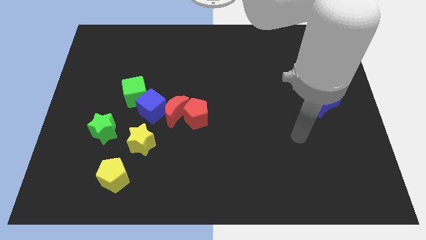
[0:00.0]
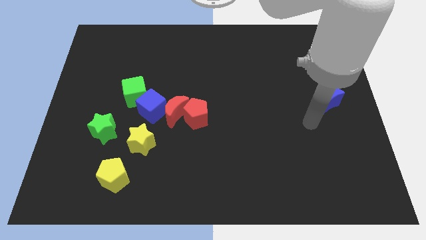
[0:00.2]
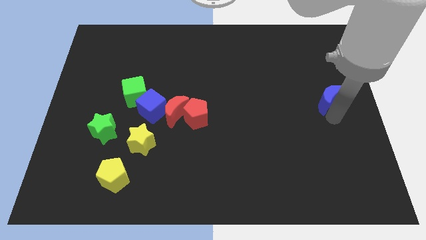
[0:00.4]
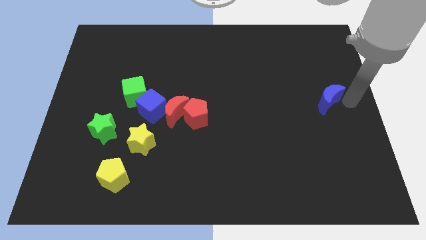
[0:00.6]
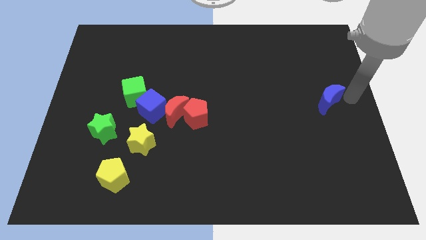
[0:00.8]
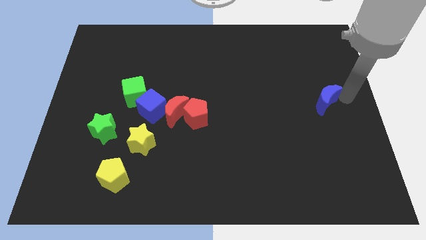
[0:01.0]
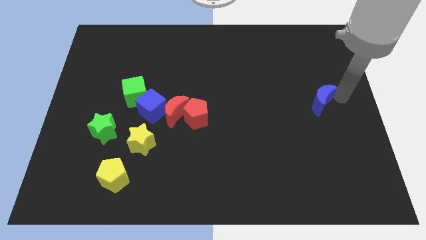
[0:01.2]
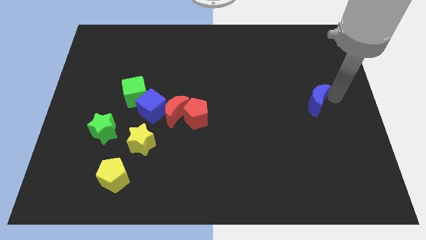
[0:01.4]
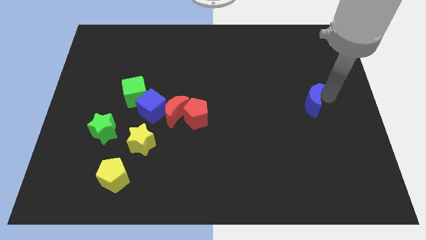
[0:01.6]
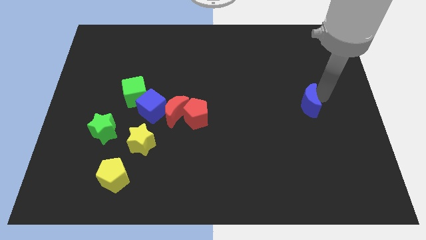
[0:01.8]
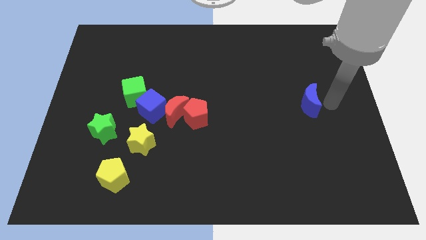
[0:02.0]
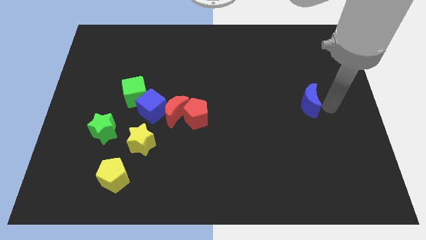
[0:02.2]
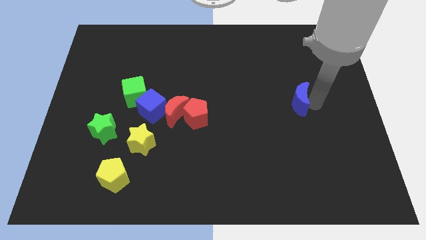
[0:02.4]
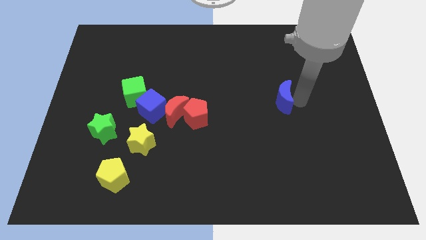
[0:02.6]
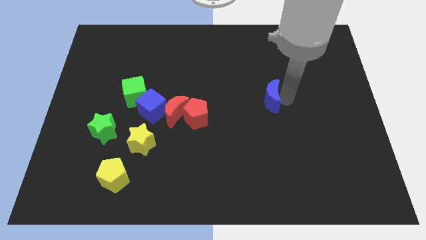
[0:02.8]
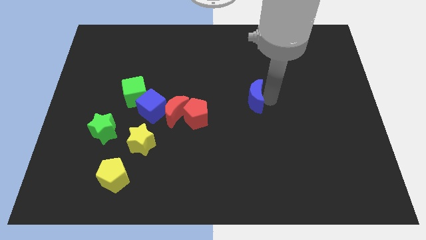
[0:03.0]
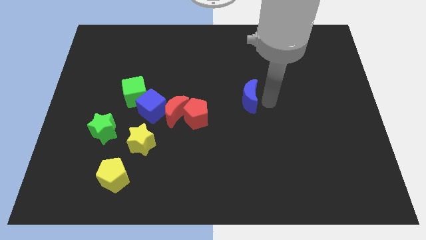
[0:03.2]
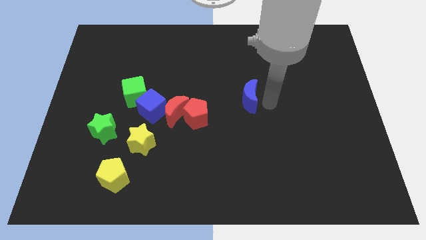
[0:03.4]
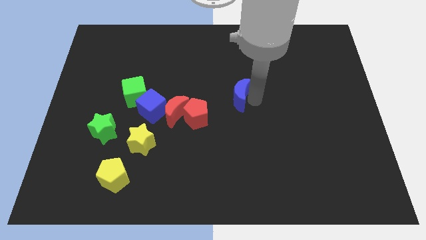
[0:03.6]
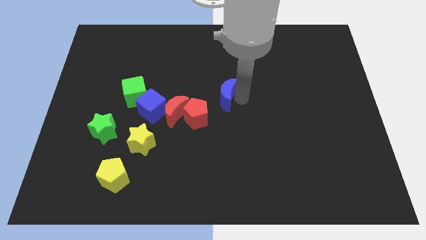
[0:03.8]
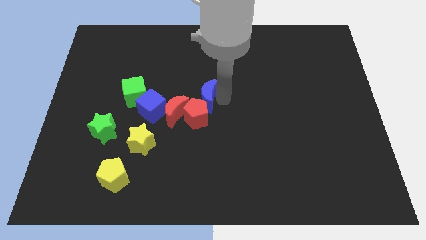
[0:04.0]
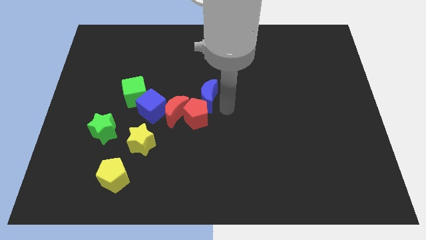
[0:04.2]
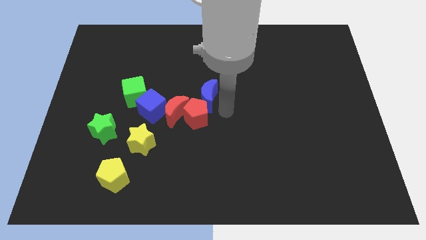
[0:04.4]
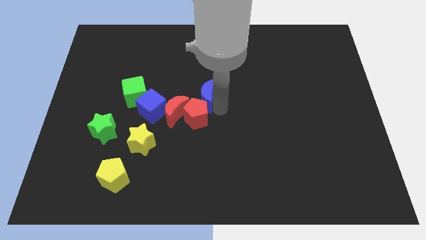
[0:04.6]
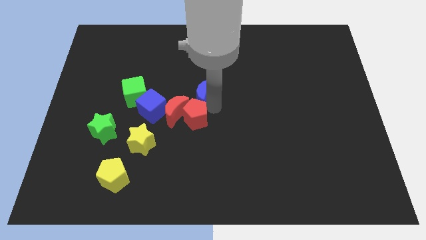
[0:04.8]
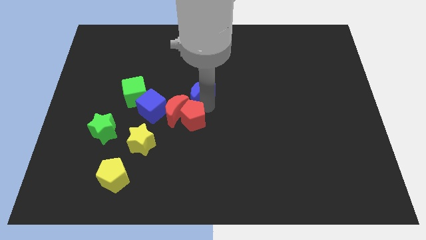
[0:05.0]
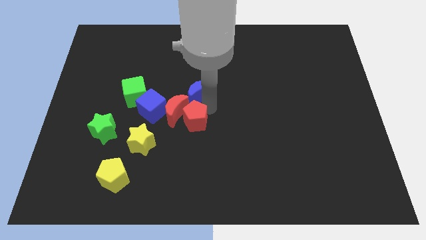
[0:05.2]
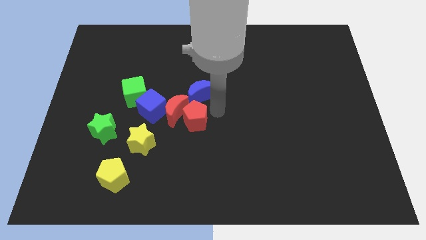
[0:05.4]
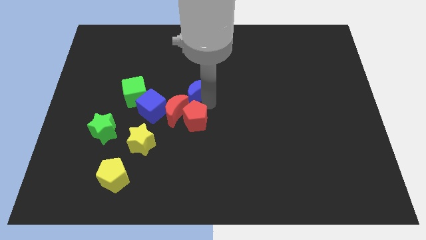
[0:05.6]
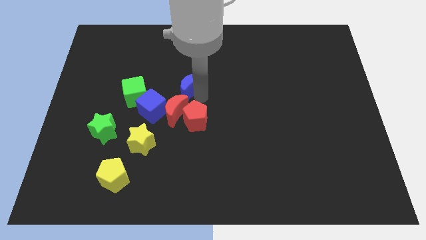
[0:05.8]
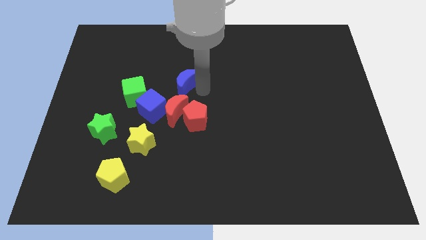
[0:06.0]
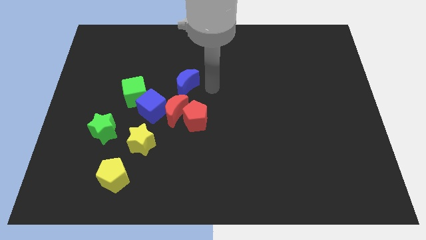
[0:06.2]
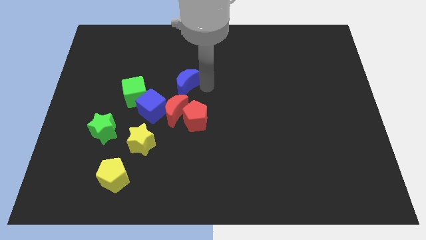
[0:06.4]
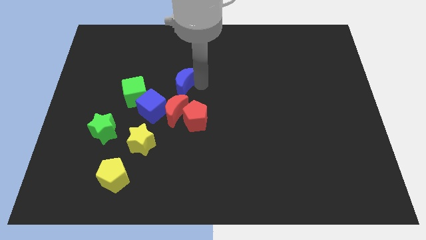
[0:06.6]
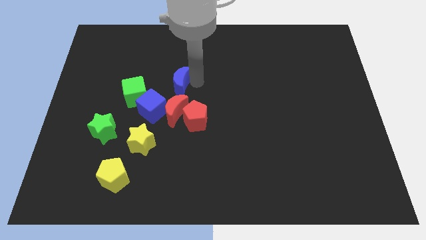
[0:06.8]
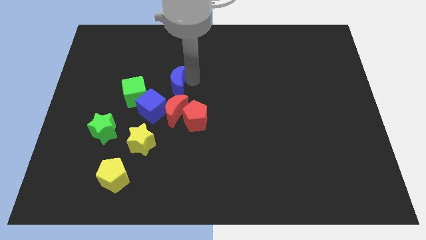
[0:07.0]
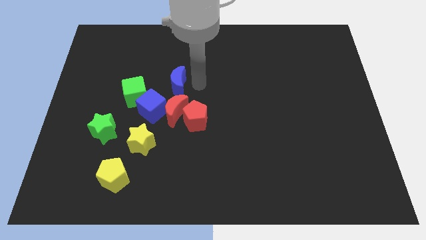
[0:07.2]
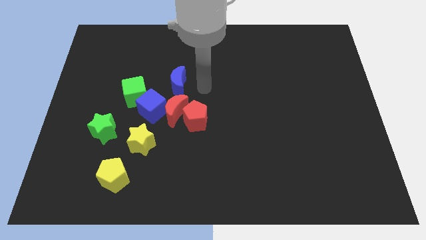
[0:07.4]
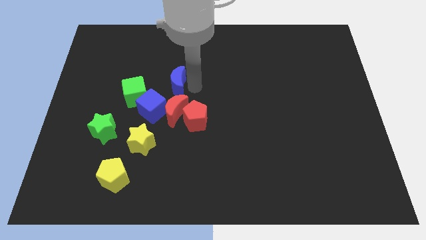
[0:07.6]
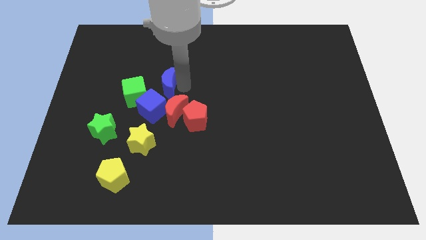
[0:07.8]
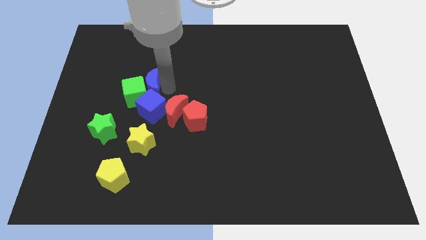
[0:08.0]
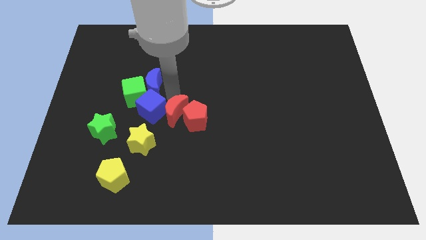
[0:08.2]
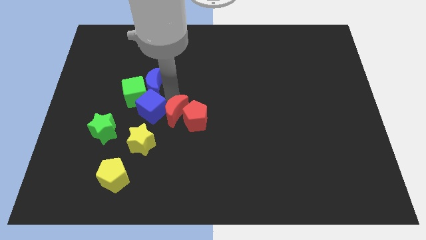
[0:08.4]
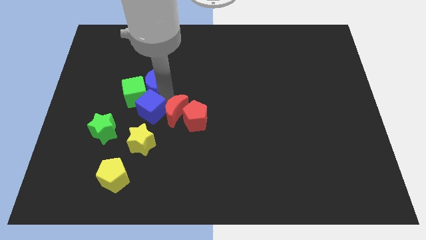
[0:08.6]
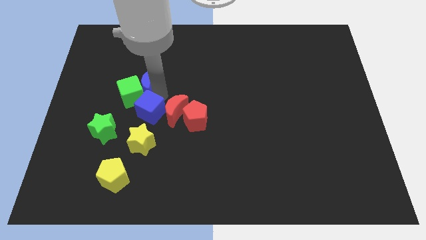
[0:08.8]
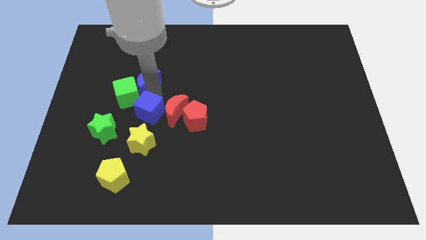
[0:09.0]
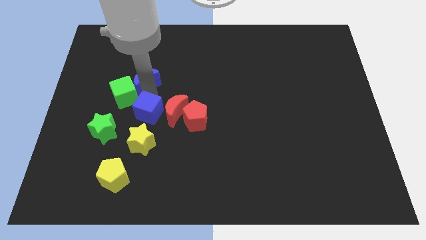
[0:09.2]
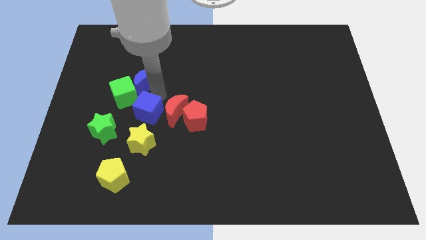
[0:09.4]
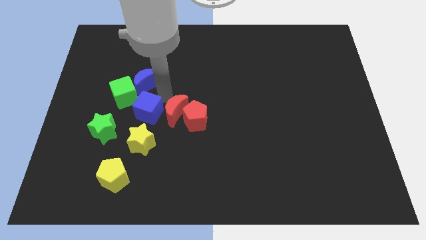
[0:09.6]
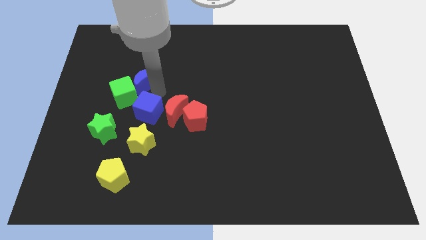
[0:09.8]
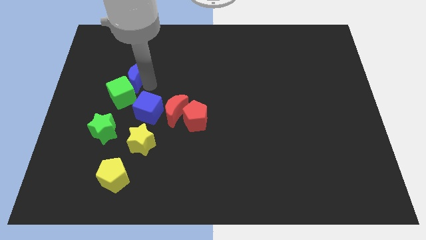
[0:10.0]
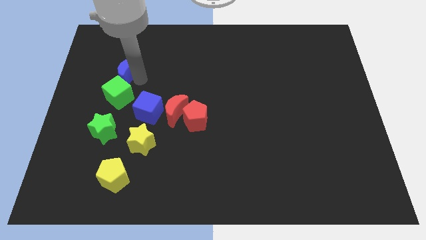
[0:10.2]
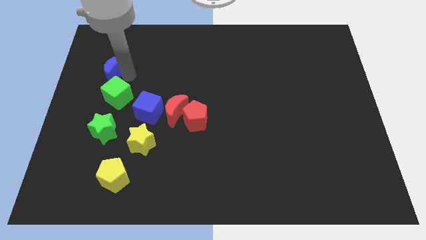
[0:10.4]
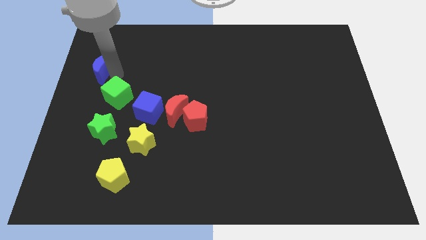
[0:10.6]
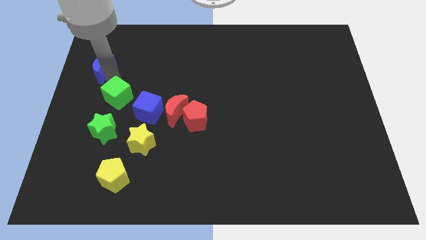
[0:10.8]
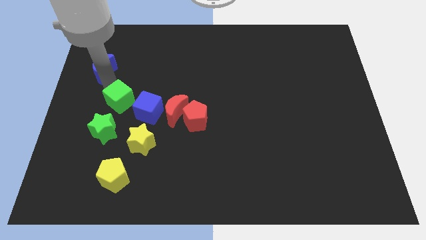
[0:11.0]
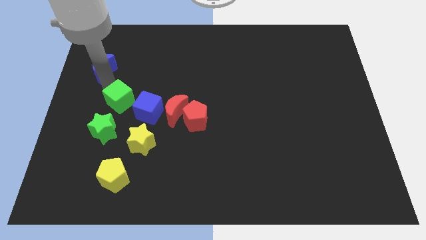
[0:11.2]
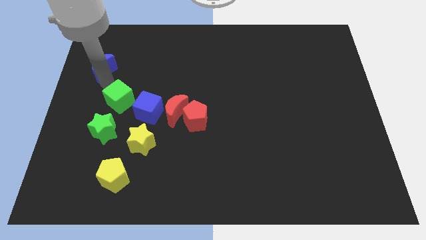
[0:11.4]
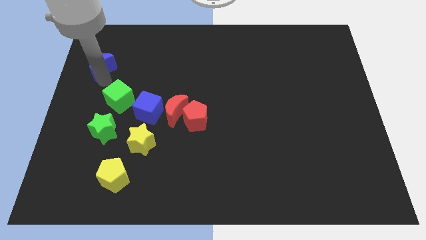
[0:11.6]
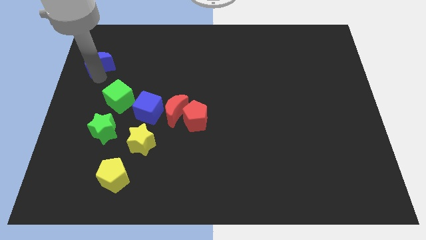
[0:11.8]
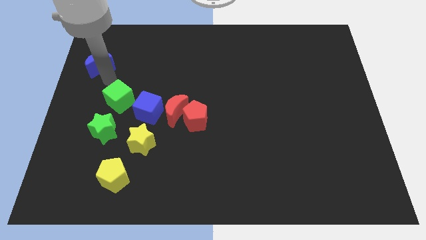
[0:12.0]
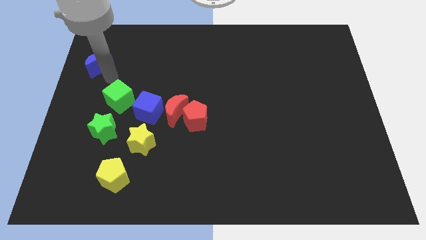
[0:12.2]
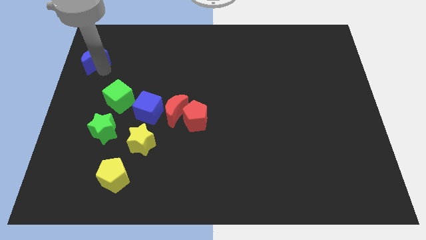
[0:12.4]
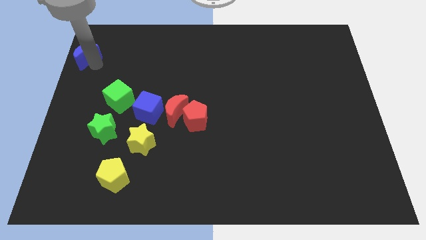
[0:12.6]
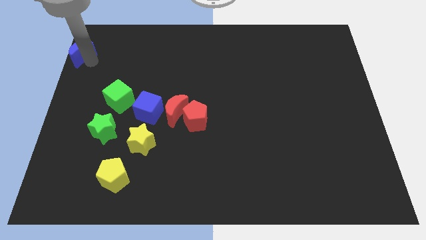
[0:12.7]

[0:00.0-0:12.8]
slide the blue moon to the top left of the board
